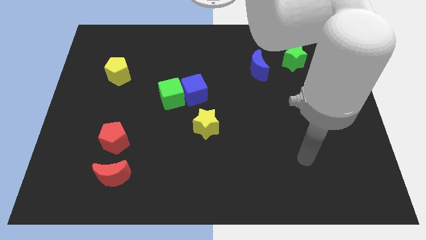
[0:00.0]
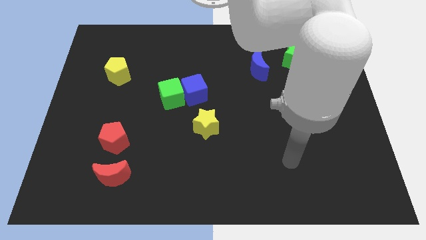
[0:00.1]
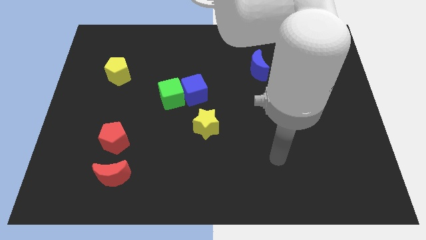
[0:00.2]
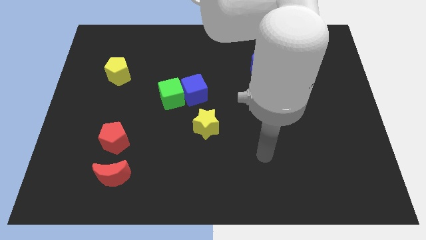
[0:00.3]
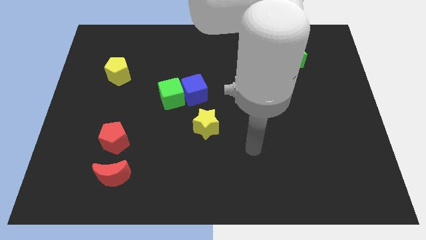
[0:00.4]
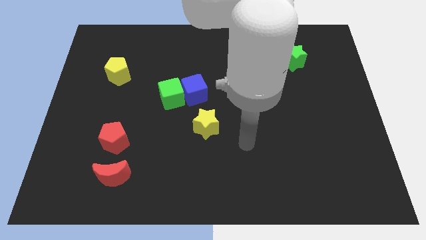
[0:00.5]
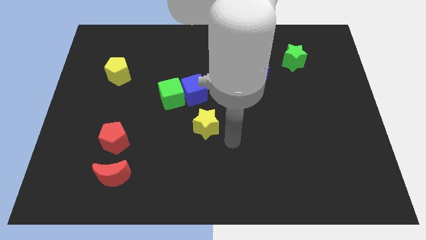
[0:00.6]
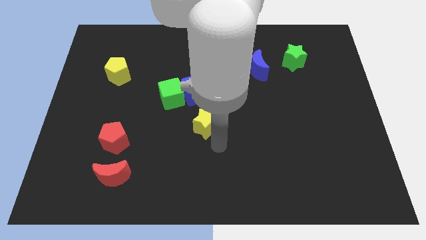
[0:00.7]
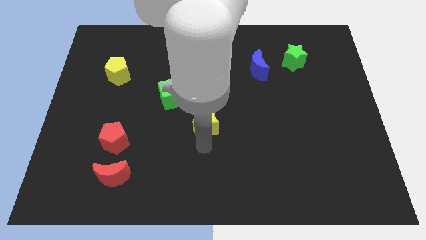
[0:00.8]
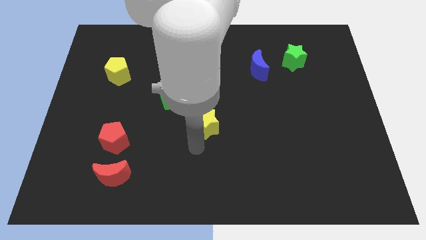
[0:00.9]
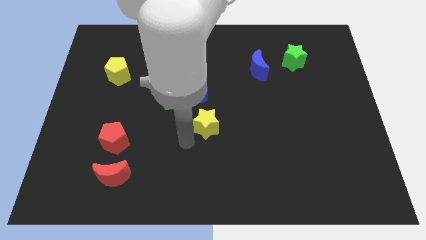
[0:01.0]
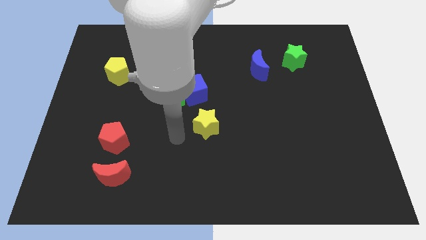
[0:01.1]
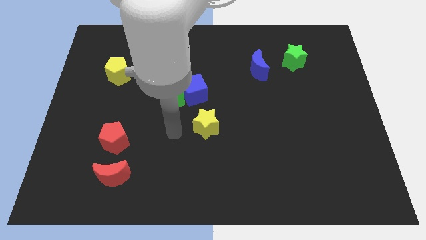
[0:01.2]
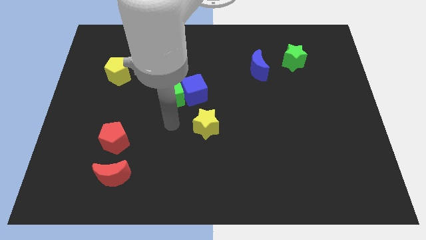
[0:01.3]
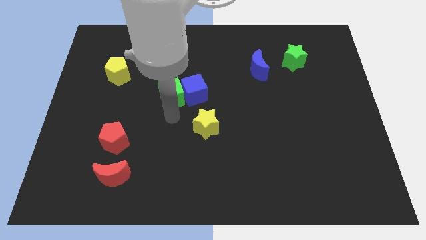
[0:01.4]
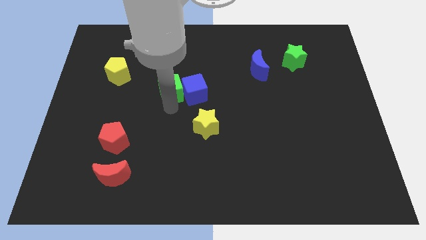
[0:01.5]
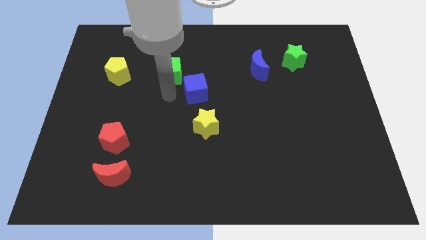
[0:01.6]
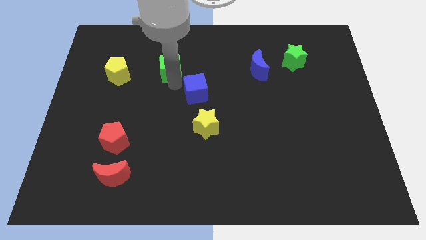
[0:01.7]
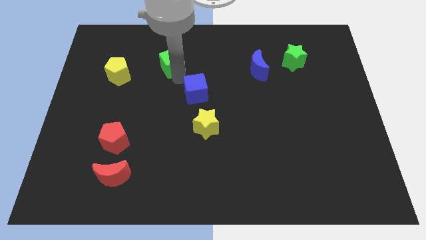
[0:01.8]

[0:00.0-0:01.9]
separate the blue cube from the green cube

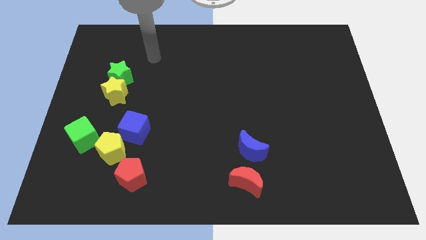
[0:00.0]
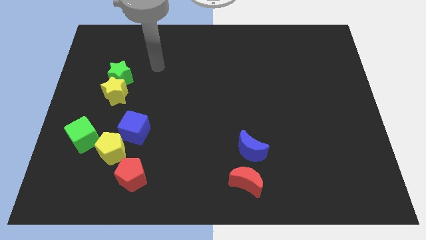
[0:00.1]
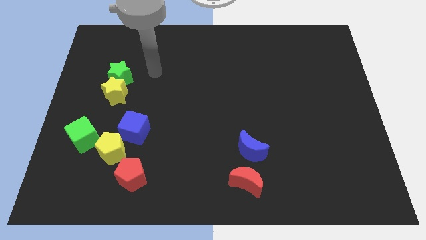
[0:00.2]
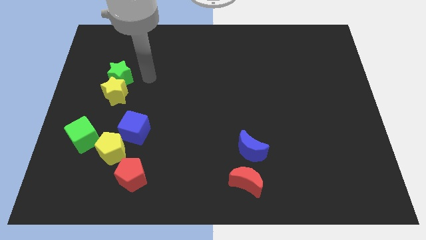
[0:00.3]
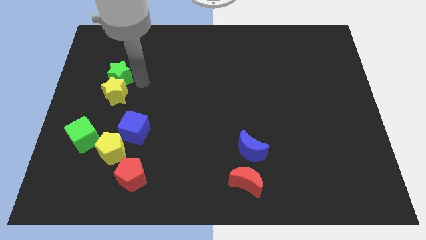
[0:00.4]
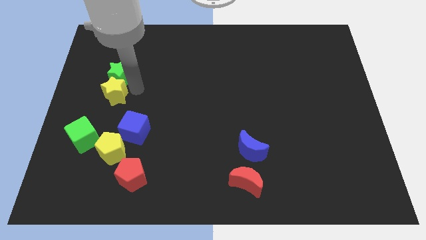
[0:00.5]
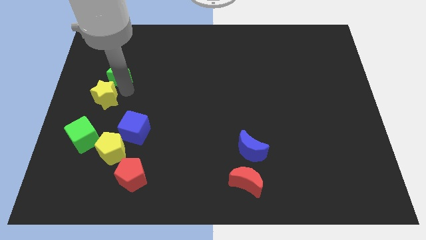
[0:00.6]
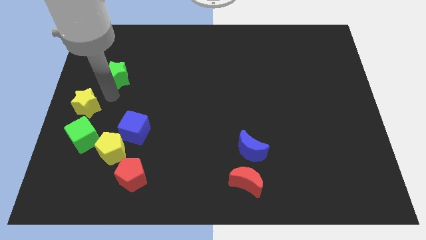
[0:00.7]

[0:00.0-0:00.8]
separate the green star from the yellow star

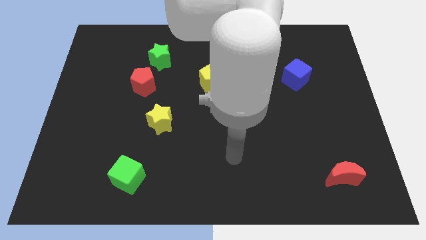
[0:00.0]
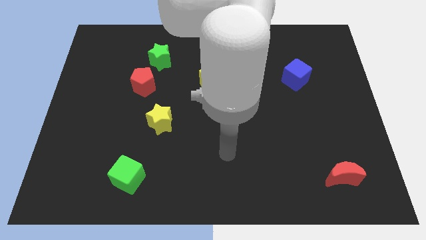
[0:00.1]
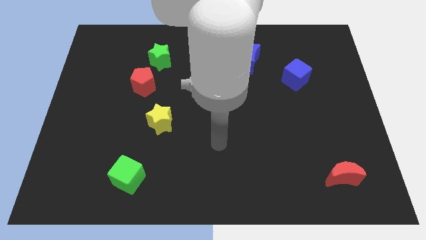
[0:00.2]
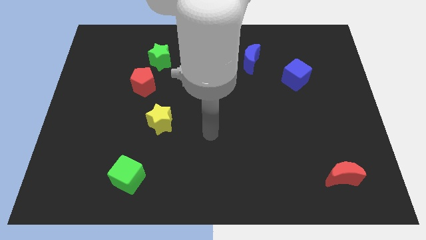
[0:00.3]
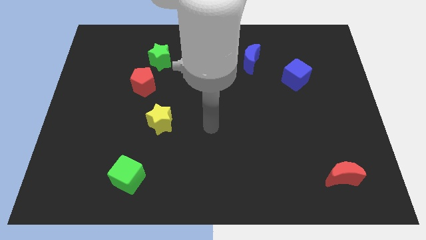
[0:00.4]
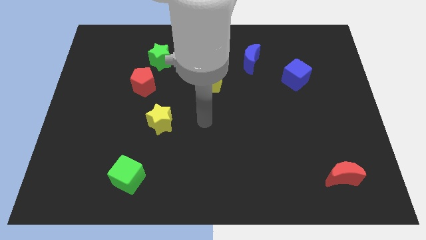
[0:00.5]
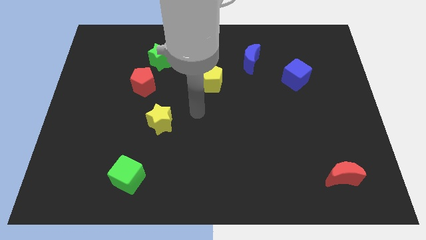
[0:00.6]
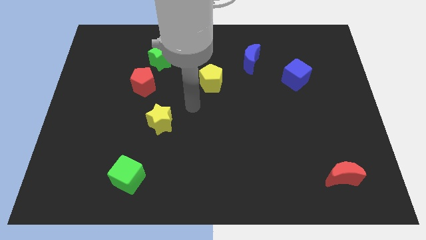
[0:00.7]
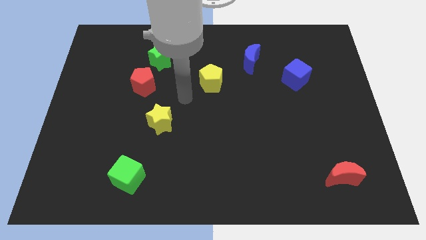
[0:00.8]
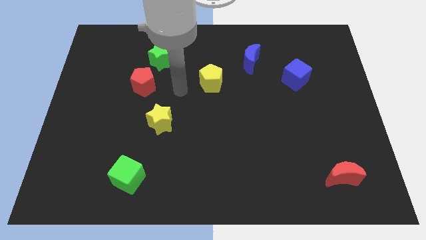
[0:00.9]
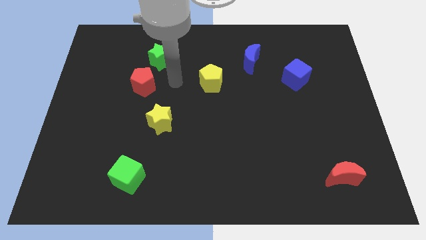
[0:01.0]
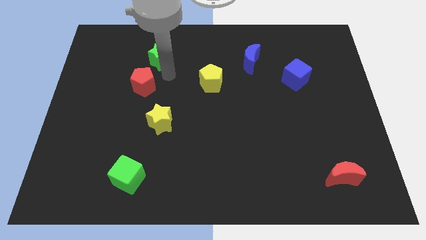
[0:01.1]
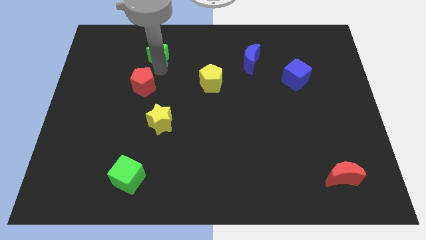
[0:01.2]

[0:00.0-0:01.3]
move the red pentagon away from the green star

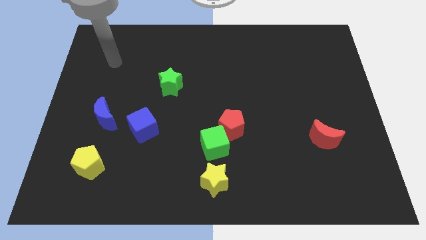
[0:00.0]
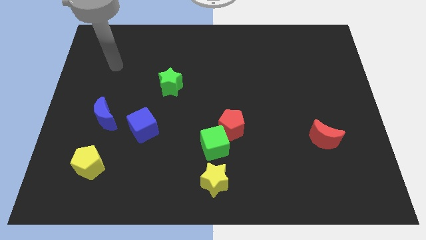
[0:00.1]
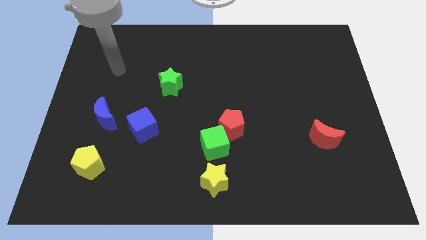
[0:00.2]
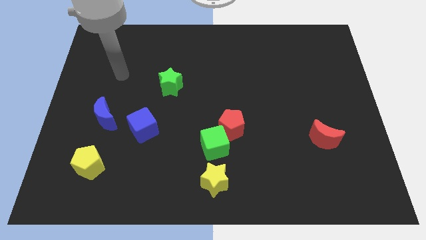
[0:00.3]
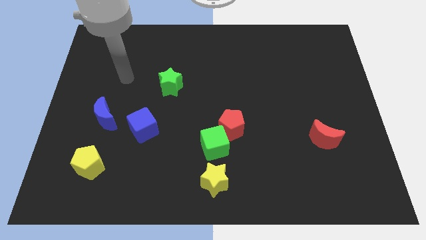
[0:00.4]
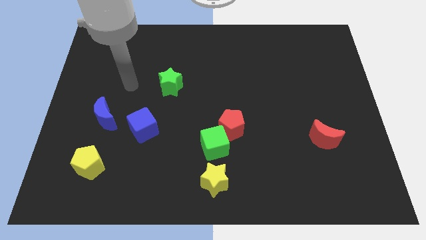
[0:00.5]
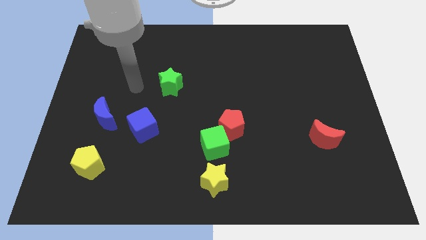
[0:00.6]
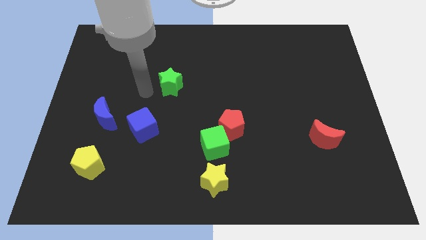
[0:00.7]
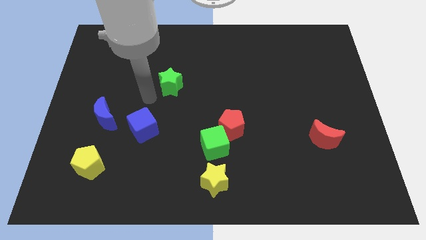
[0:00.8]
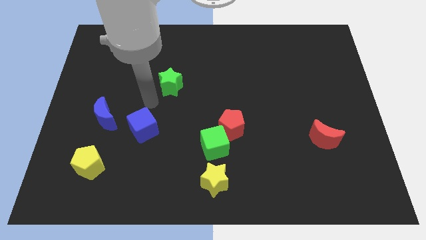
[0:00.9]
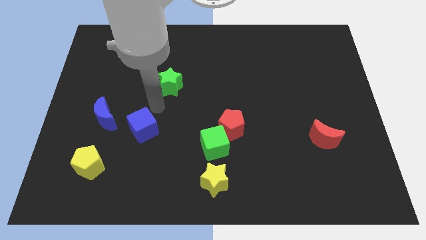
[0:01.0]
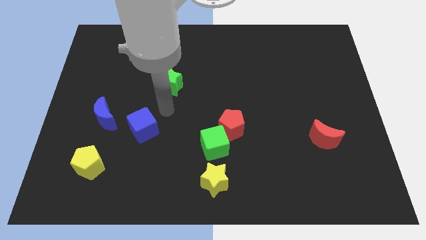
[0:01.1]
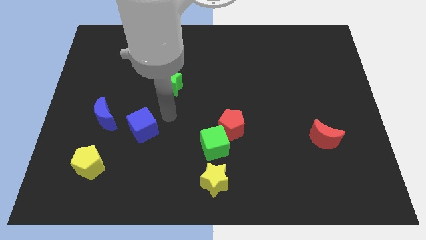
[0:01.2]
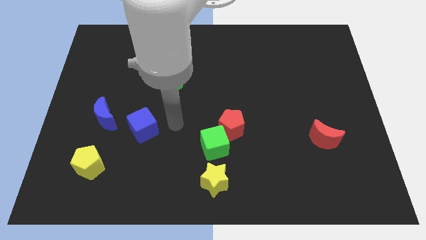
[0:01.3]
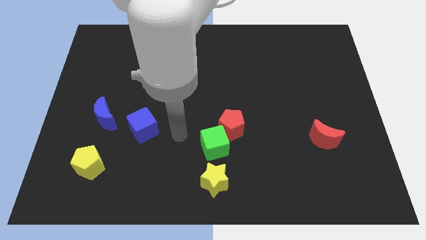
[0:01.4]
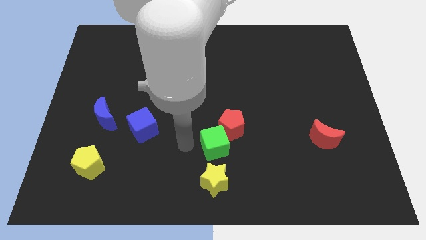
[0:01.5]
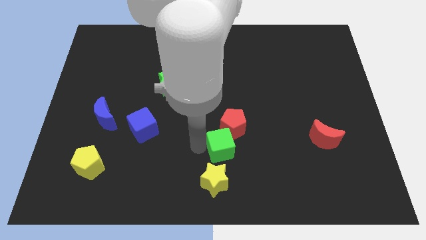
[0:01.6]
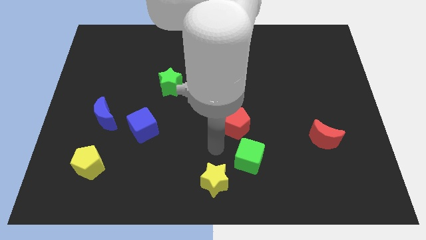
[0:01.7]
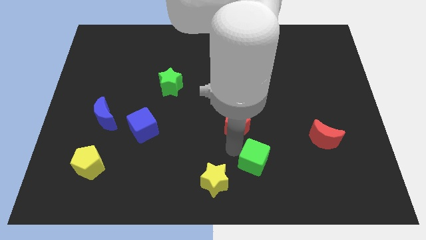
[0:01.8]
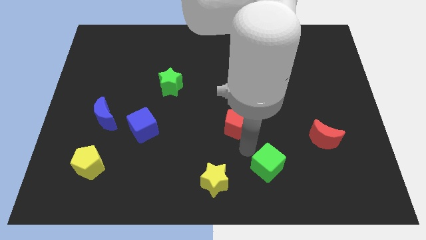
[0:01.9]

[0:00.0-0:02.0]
pull the red pentagon apart from the green cube

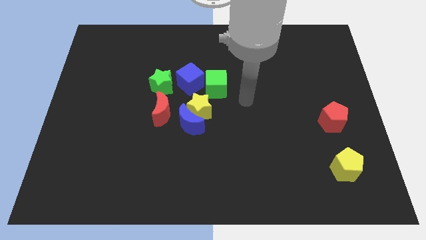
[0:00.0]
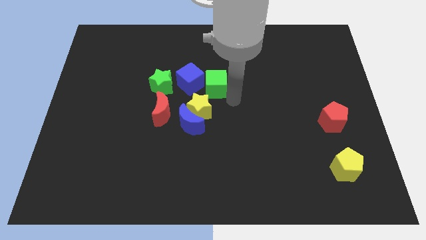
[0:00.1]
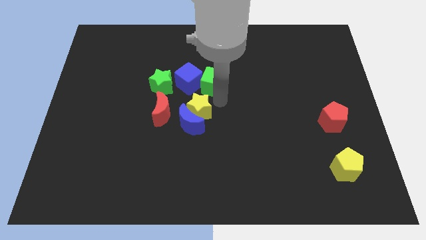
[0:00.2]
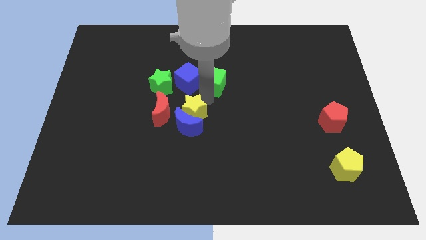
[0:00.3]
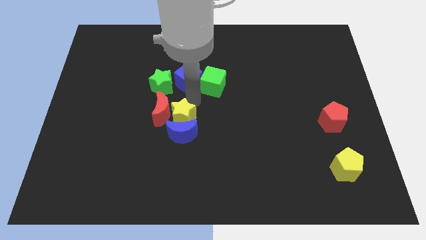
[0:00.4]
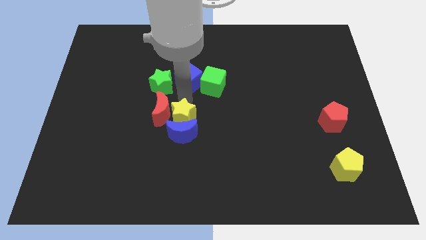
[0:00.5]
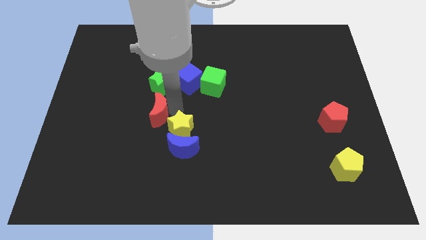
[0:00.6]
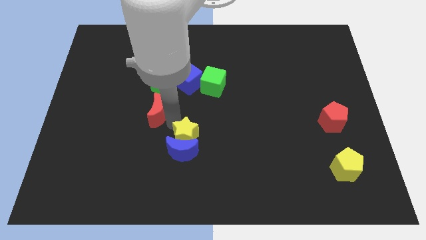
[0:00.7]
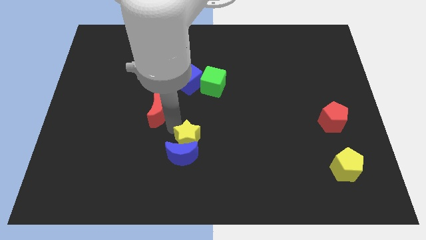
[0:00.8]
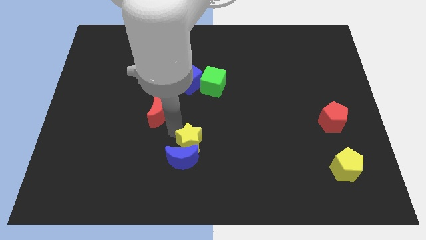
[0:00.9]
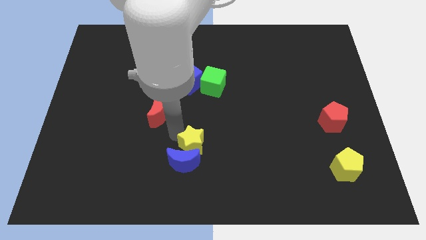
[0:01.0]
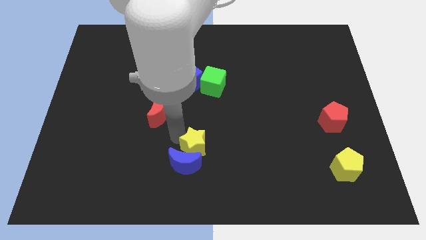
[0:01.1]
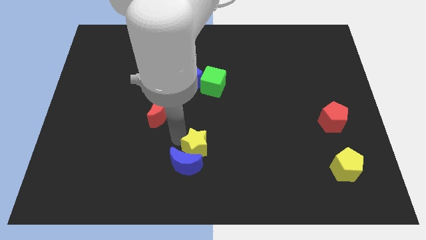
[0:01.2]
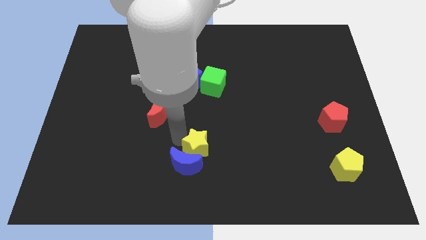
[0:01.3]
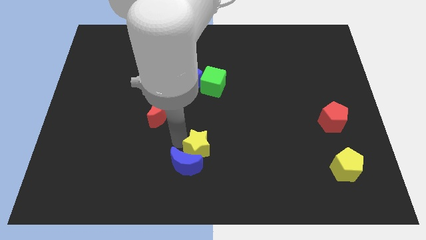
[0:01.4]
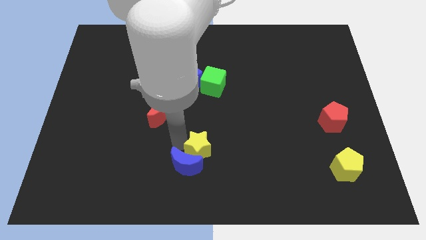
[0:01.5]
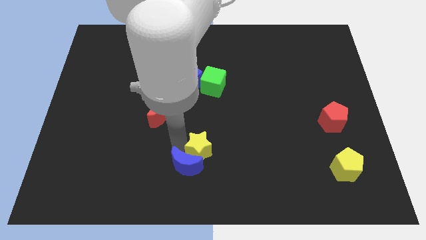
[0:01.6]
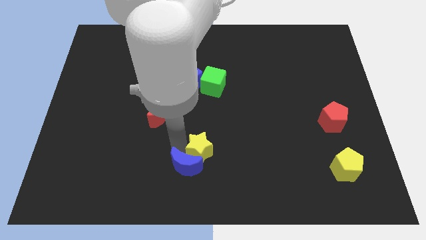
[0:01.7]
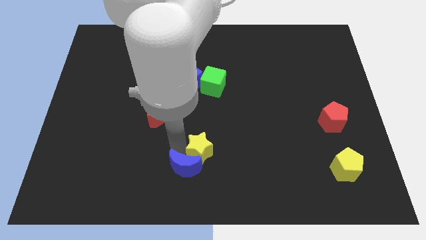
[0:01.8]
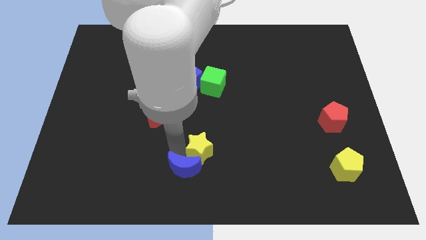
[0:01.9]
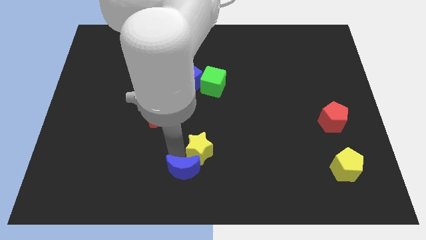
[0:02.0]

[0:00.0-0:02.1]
pull the blue moon apart from the yellow star and red moon

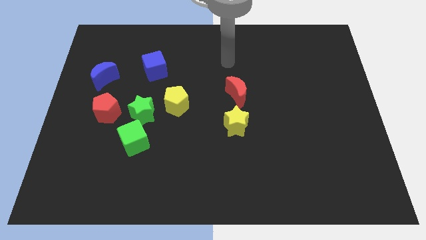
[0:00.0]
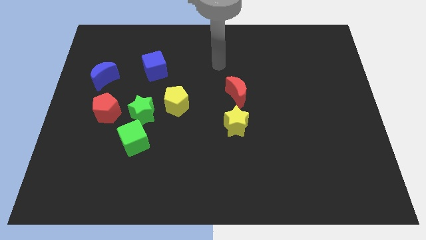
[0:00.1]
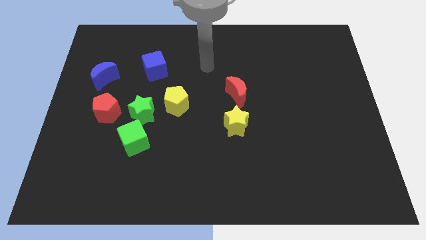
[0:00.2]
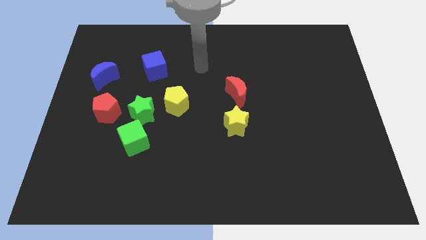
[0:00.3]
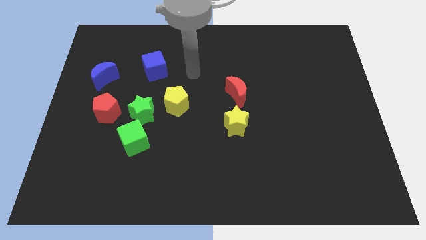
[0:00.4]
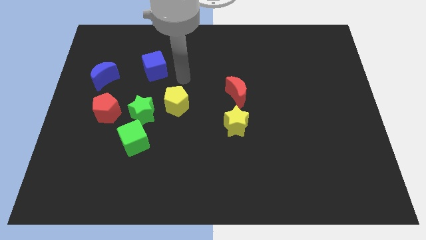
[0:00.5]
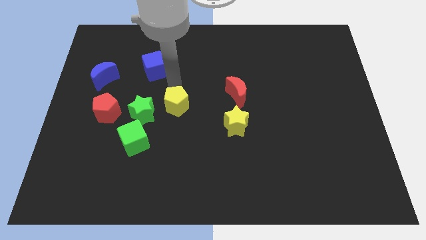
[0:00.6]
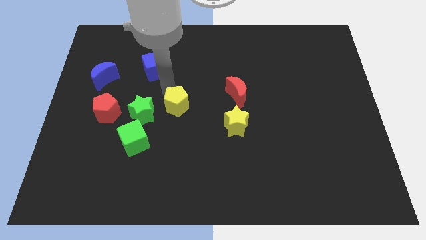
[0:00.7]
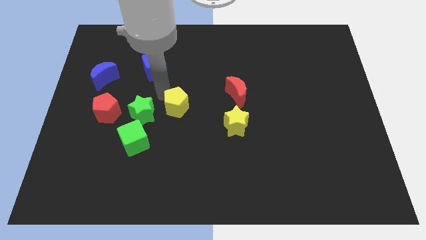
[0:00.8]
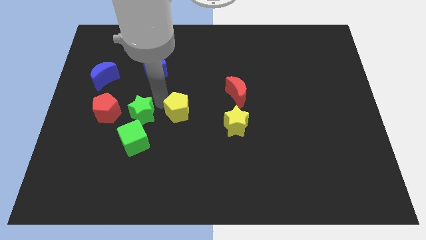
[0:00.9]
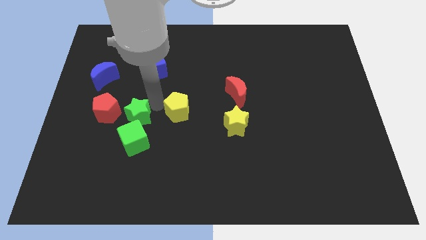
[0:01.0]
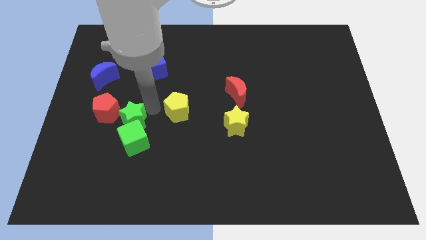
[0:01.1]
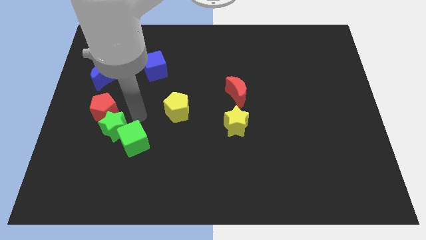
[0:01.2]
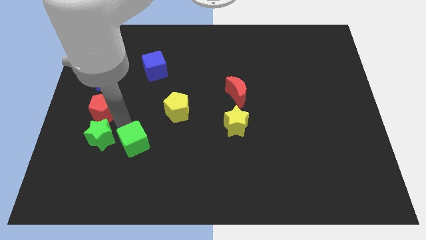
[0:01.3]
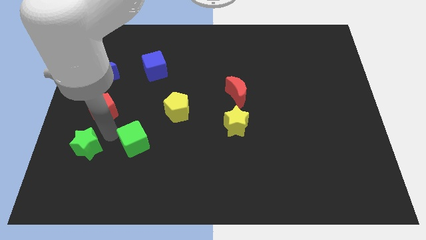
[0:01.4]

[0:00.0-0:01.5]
pull the green cube apart from the green star
